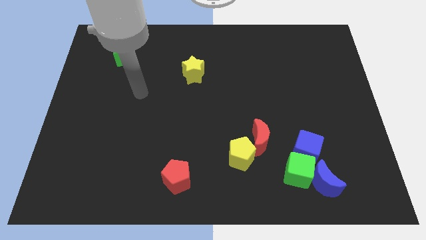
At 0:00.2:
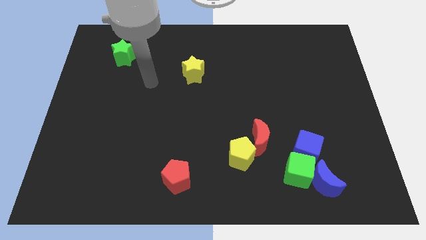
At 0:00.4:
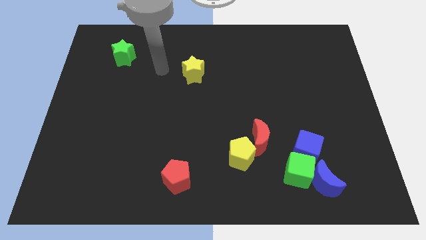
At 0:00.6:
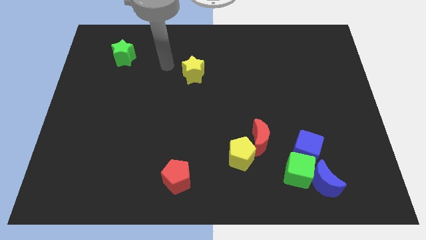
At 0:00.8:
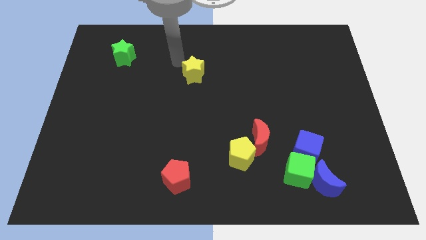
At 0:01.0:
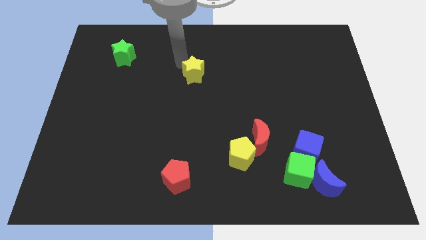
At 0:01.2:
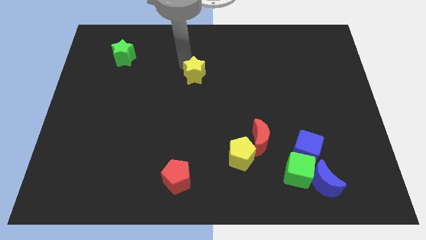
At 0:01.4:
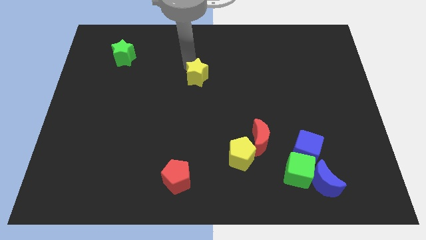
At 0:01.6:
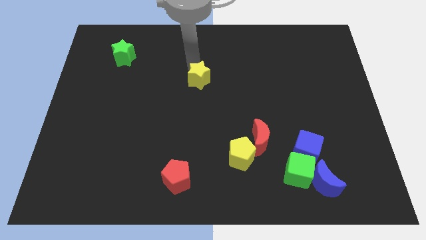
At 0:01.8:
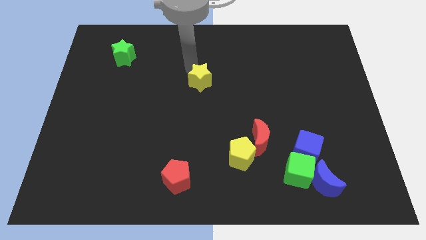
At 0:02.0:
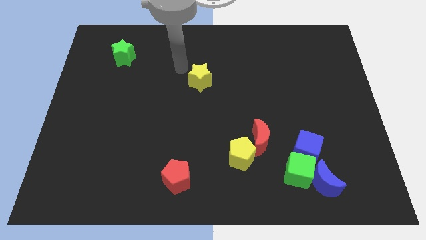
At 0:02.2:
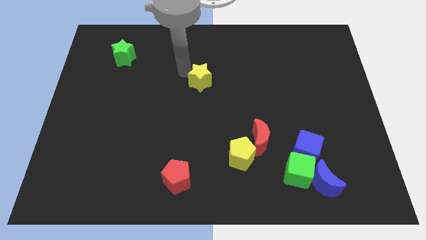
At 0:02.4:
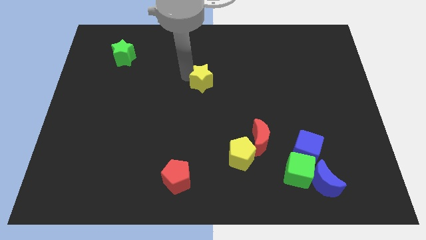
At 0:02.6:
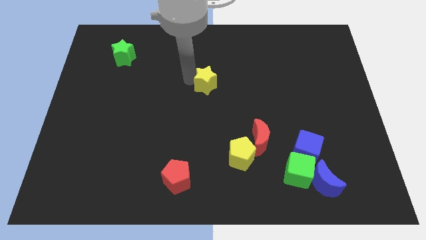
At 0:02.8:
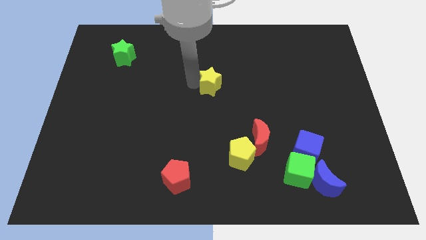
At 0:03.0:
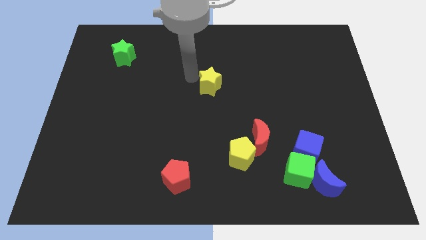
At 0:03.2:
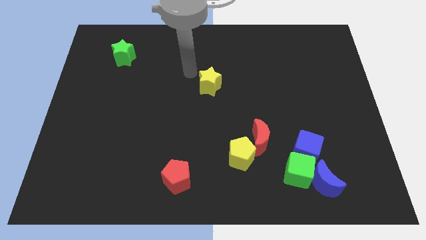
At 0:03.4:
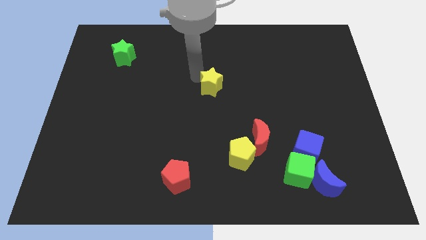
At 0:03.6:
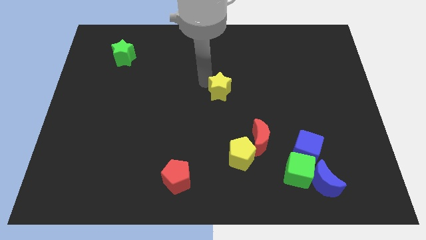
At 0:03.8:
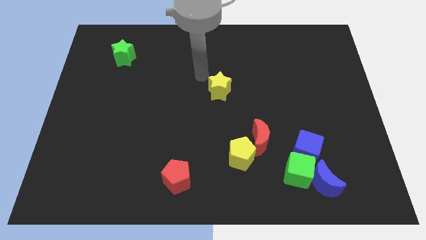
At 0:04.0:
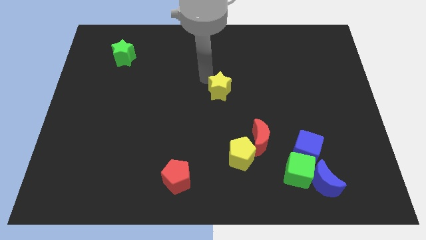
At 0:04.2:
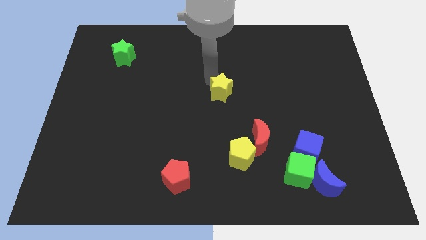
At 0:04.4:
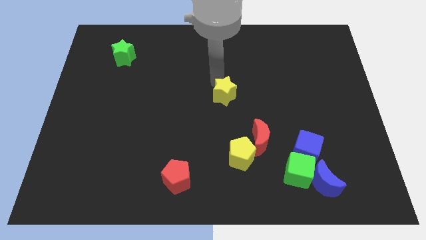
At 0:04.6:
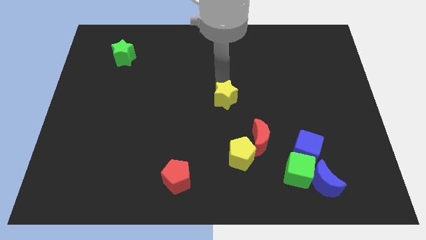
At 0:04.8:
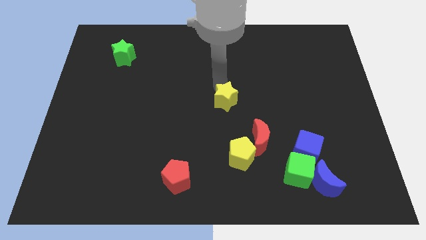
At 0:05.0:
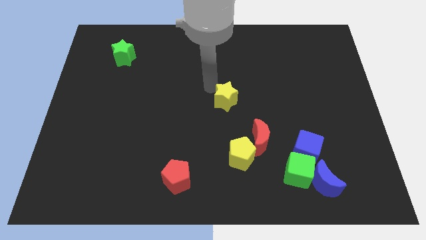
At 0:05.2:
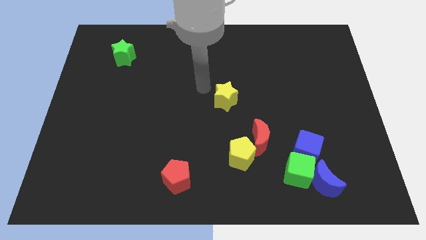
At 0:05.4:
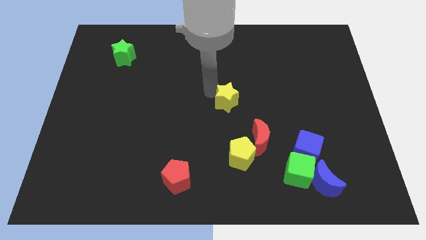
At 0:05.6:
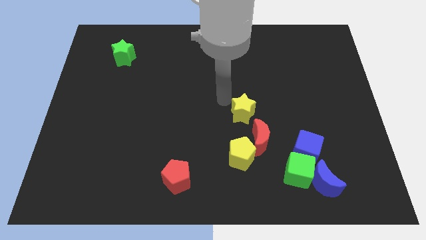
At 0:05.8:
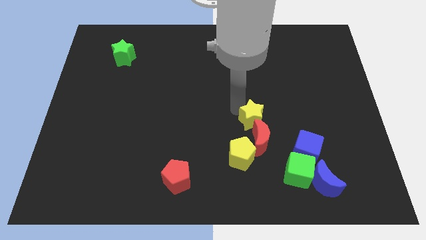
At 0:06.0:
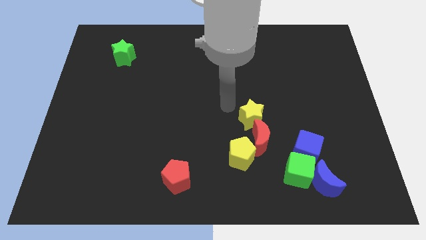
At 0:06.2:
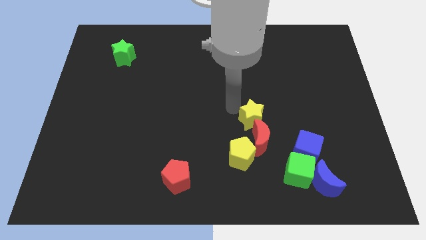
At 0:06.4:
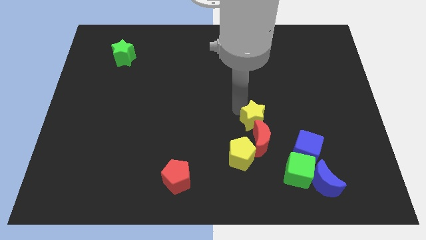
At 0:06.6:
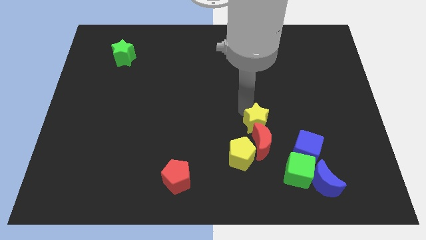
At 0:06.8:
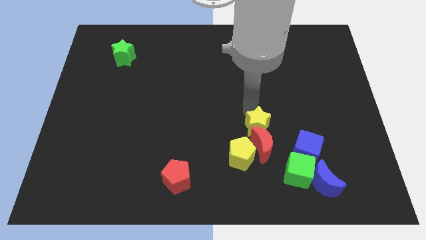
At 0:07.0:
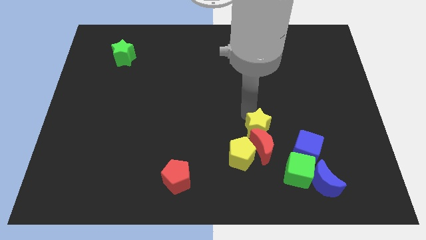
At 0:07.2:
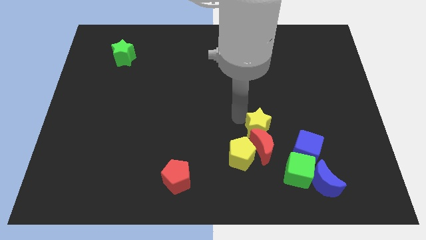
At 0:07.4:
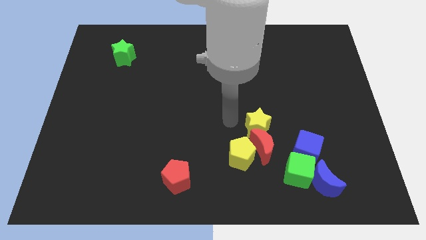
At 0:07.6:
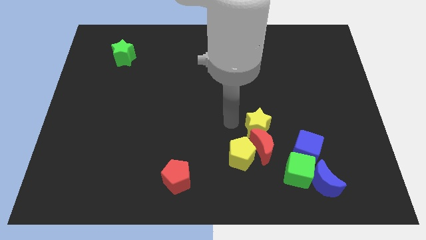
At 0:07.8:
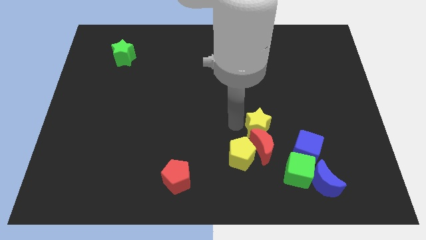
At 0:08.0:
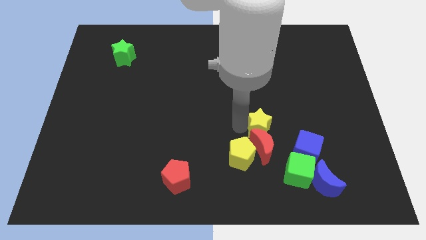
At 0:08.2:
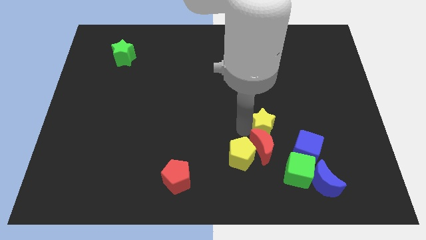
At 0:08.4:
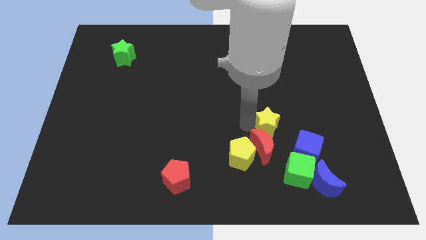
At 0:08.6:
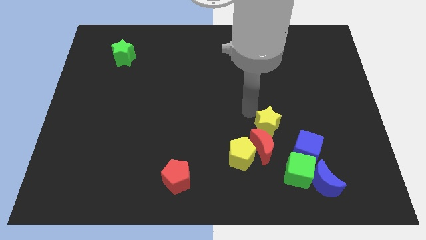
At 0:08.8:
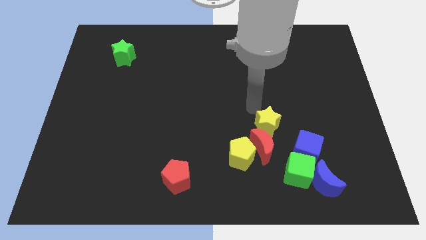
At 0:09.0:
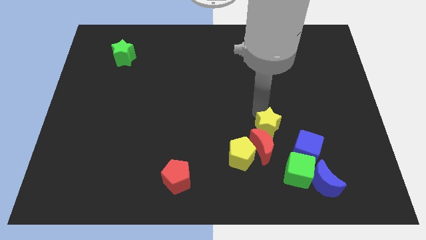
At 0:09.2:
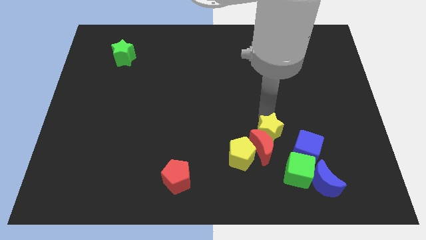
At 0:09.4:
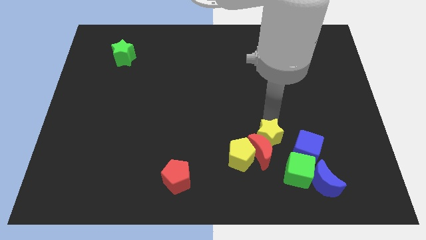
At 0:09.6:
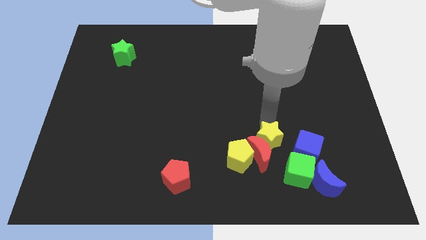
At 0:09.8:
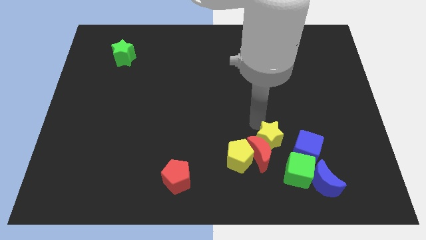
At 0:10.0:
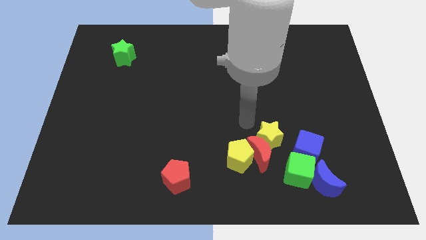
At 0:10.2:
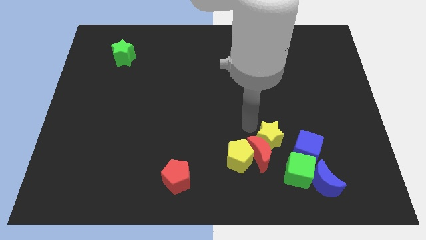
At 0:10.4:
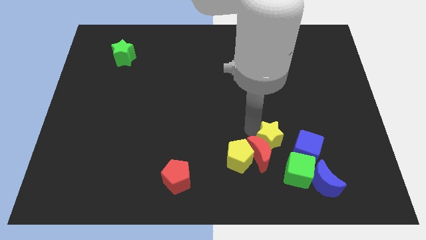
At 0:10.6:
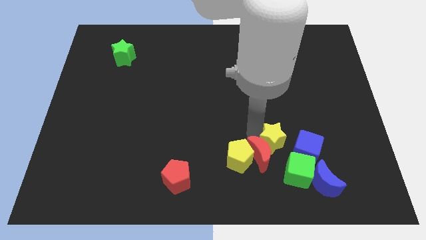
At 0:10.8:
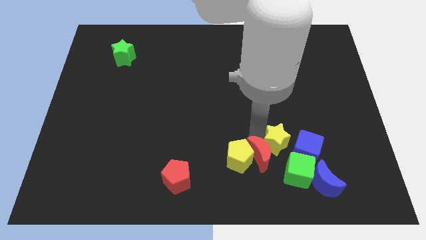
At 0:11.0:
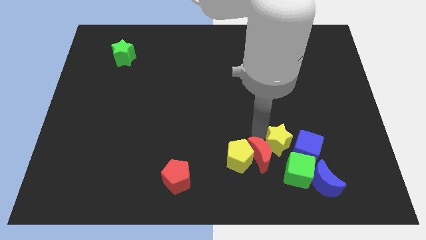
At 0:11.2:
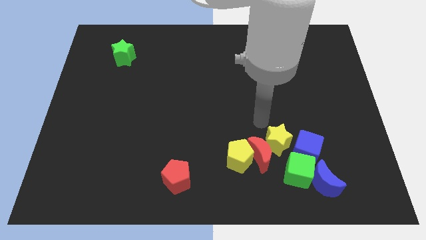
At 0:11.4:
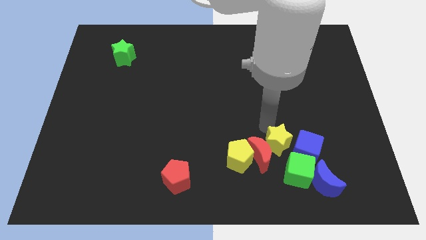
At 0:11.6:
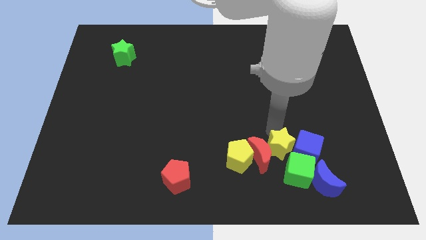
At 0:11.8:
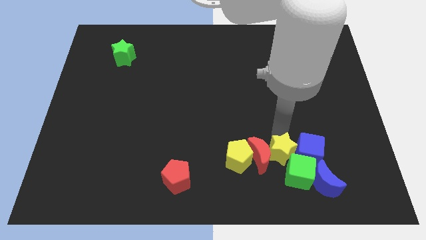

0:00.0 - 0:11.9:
push the yellow star next to the green cube
